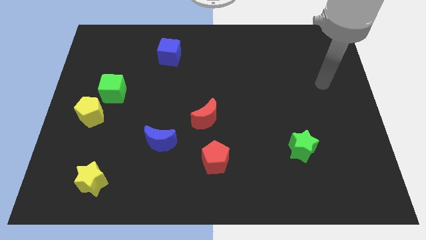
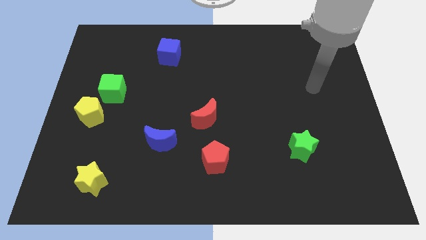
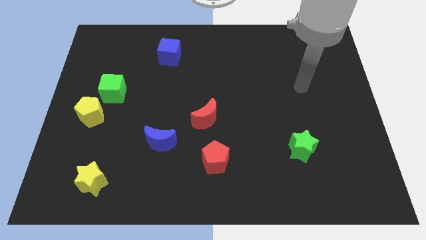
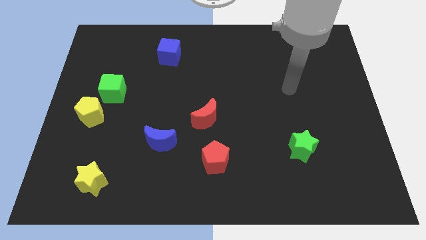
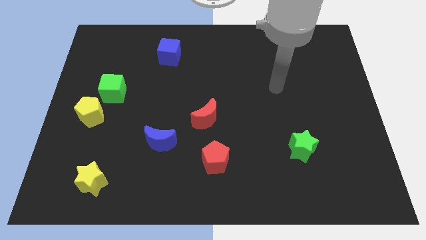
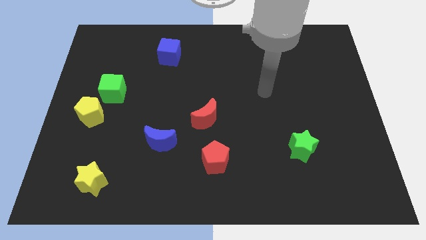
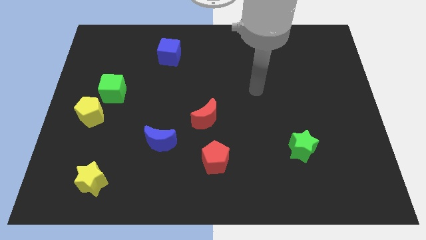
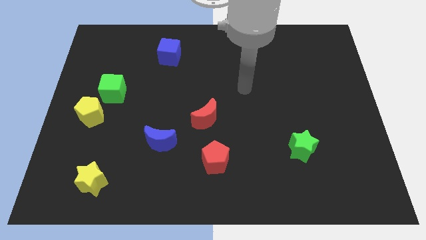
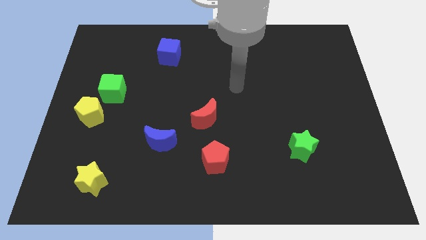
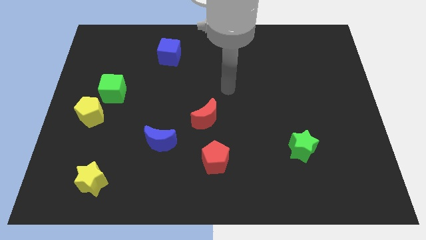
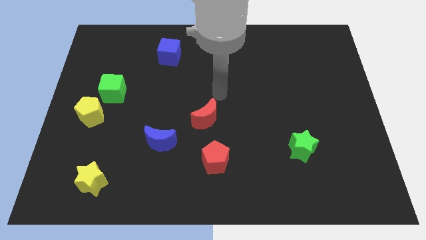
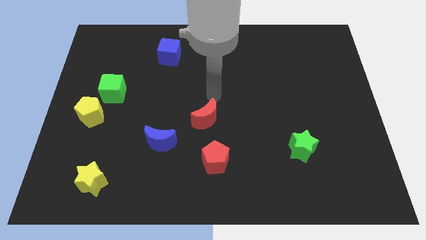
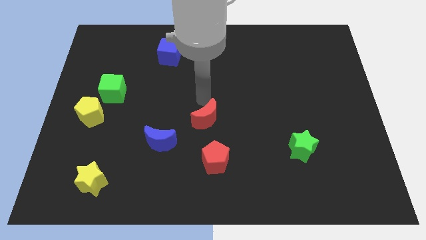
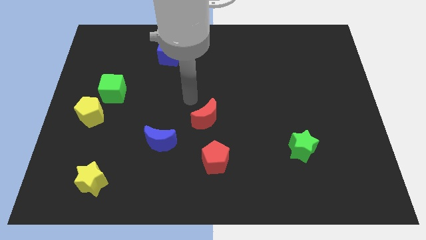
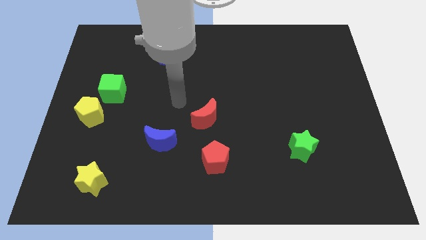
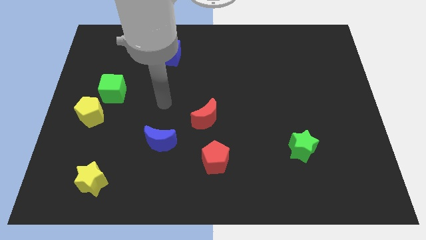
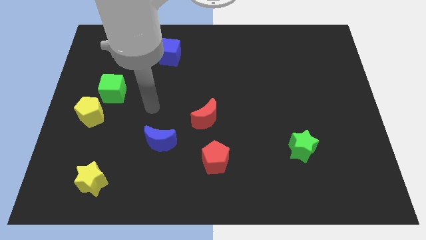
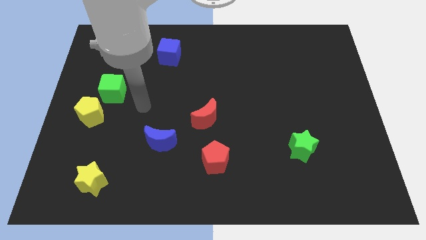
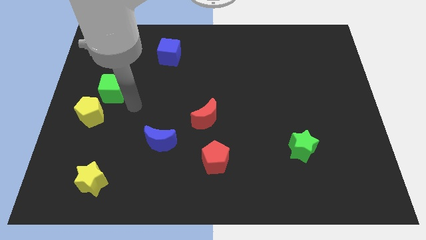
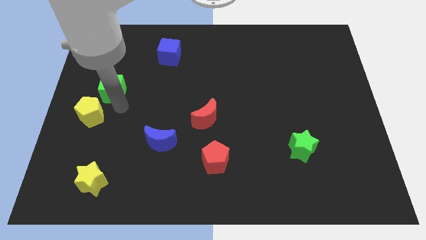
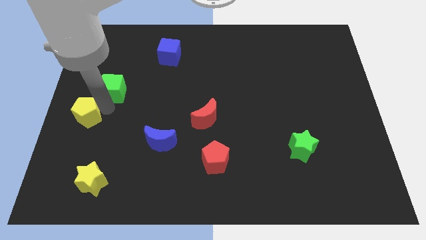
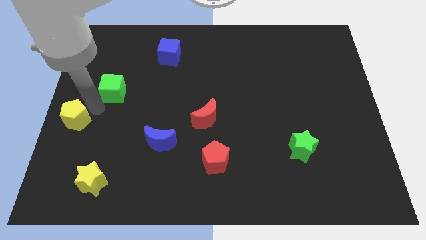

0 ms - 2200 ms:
move the green cube away from the yellow pentagon

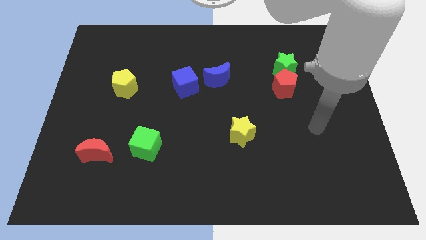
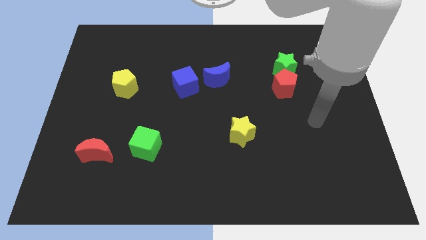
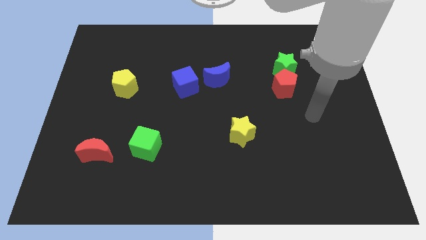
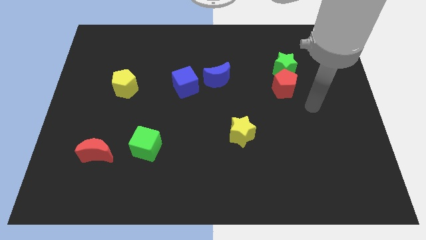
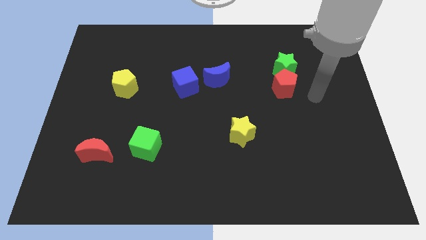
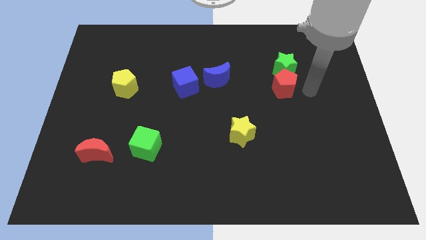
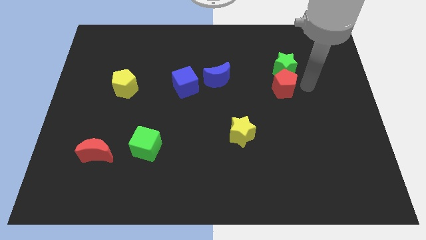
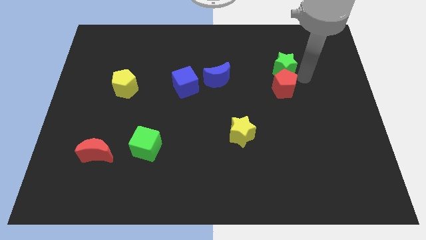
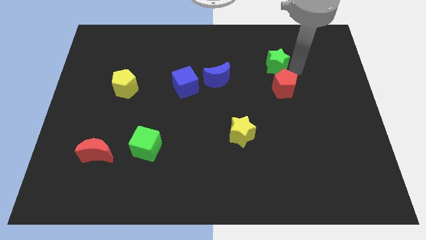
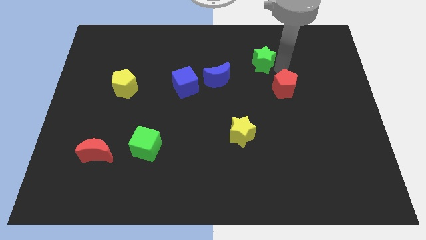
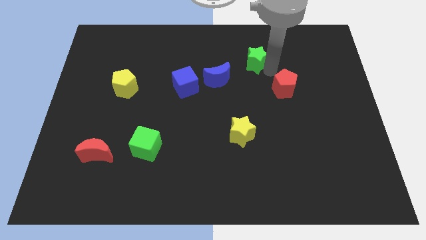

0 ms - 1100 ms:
separate the red pentagon from the green star

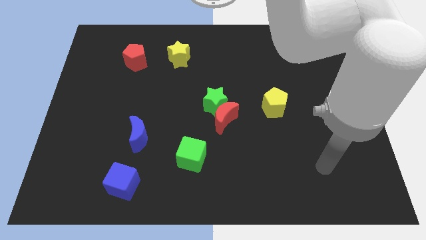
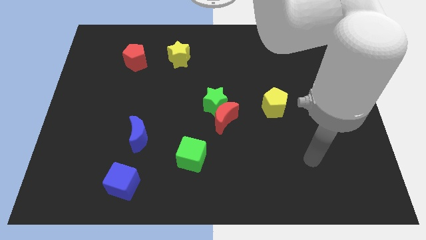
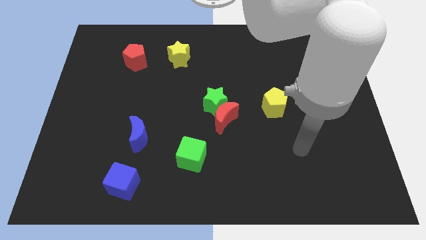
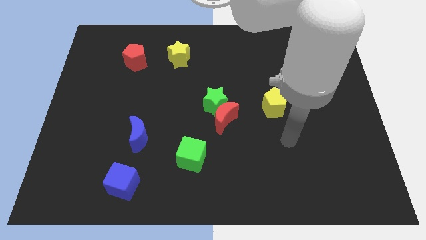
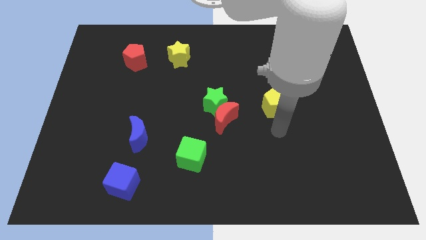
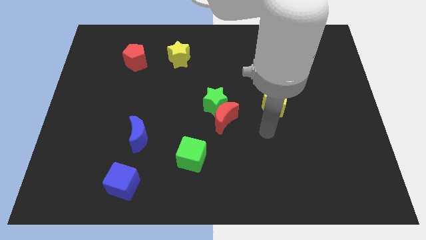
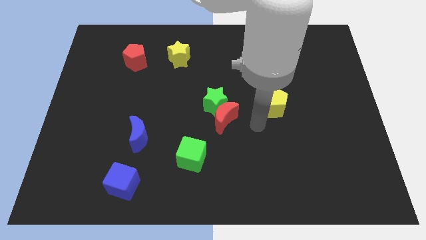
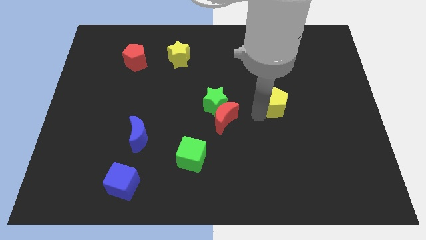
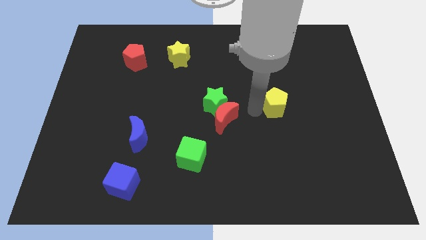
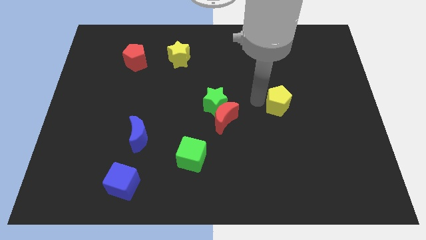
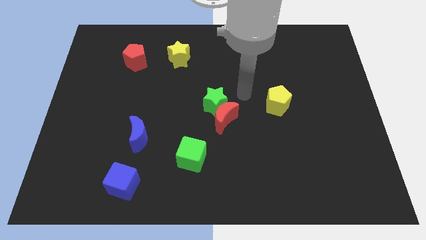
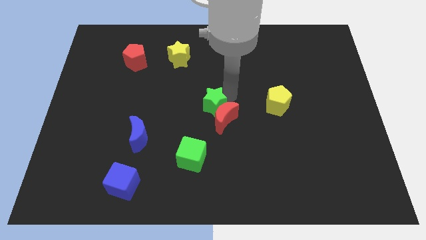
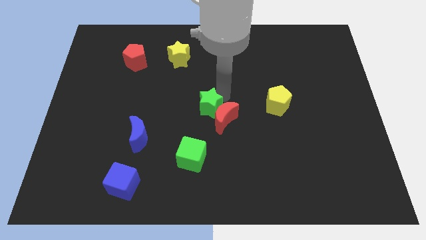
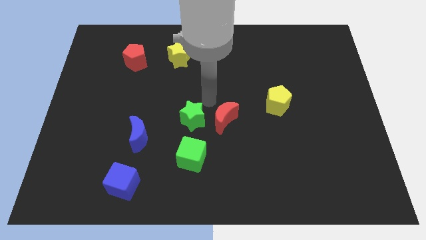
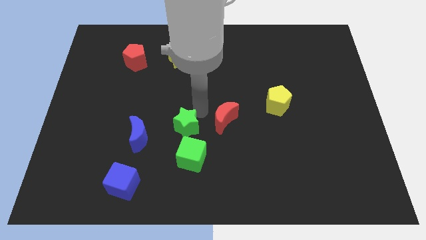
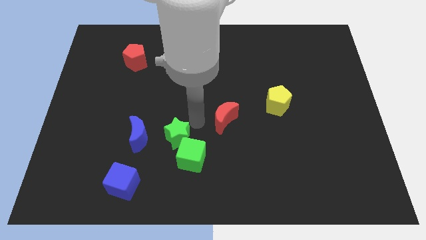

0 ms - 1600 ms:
move the red moon away from the green star

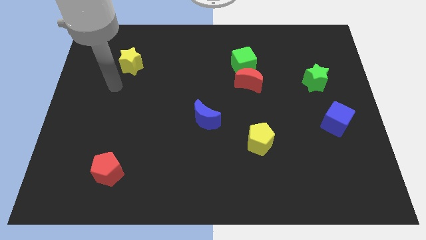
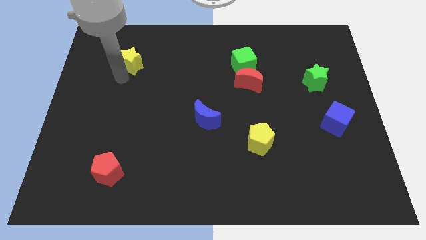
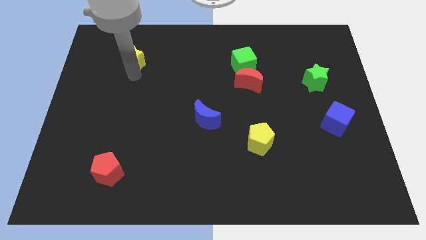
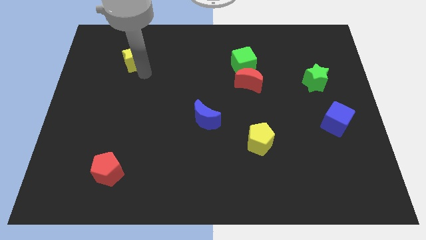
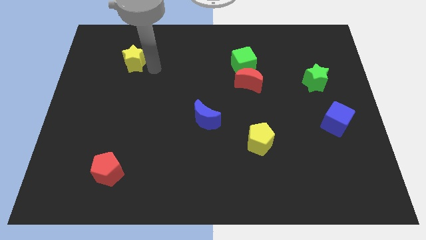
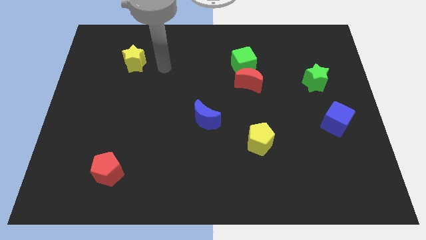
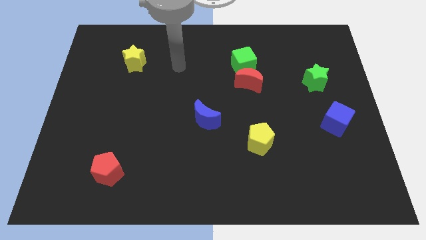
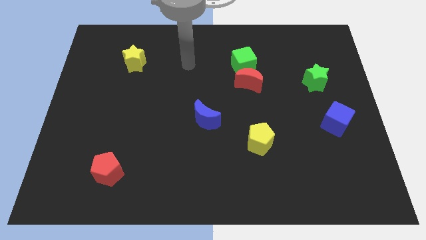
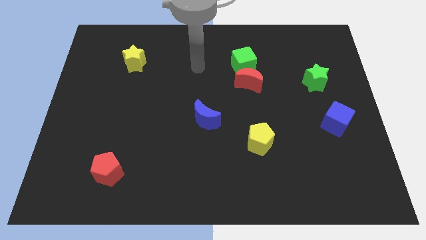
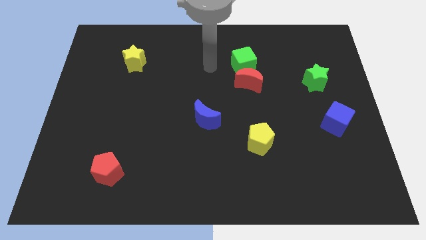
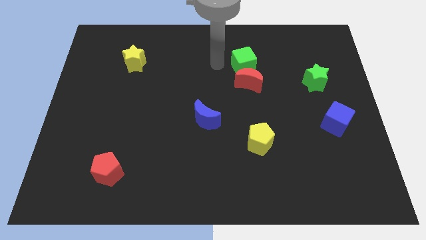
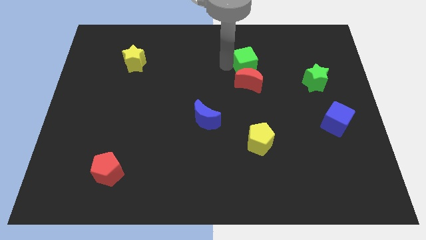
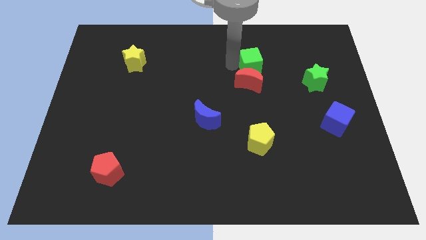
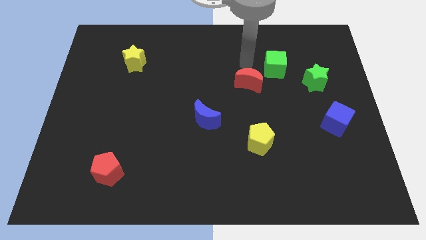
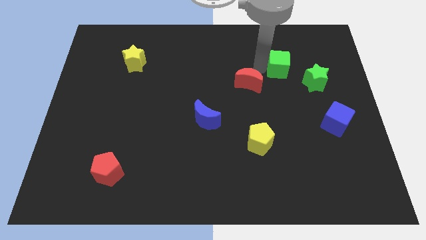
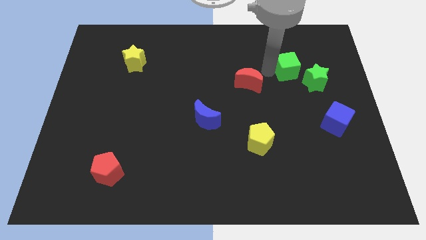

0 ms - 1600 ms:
separate the red moon from the green cube

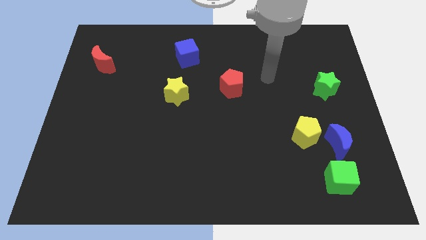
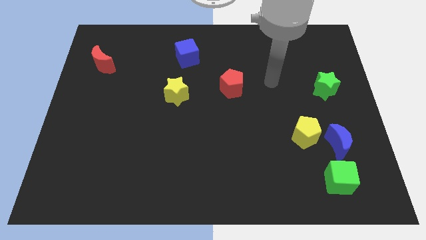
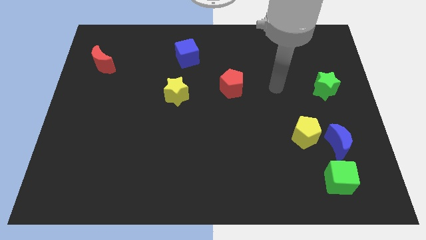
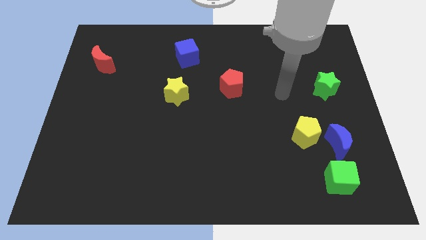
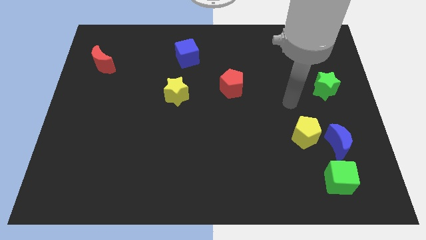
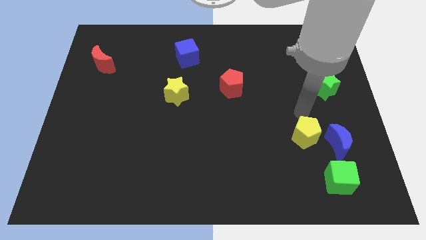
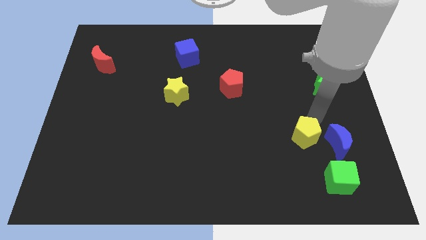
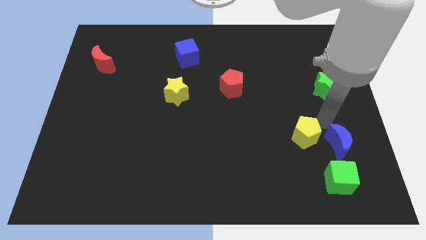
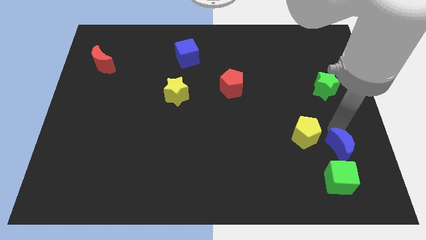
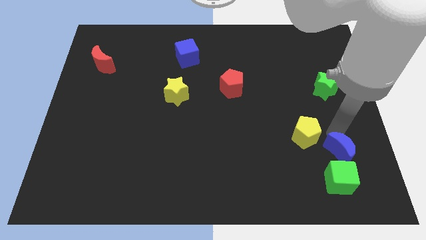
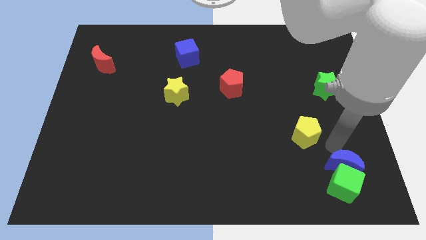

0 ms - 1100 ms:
separate the yellow pentagon from the blue moon

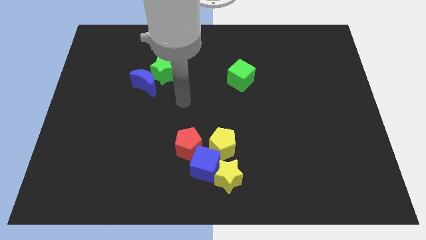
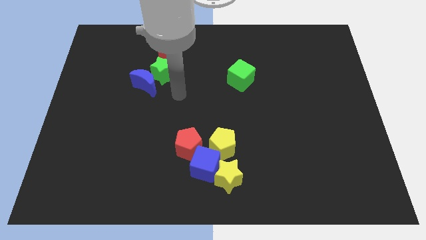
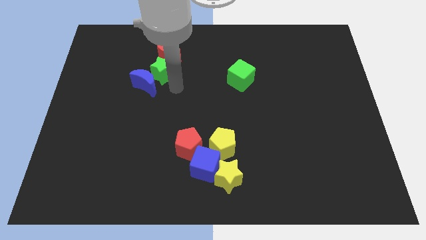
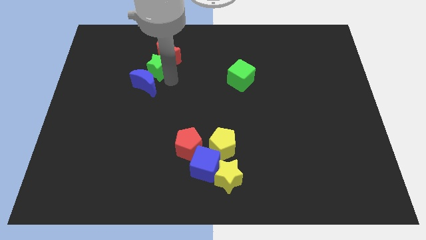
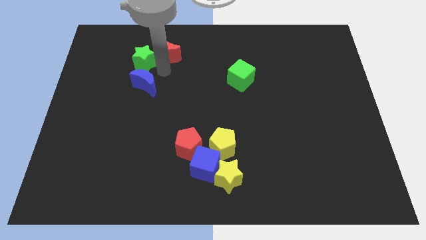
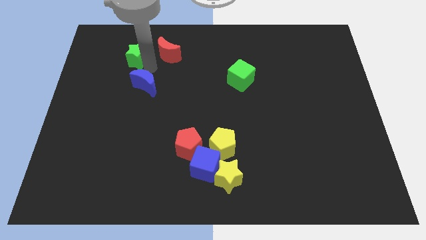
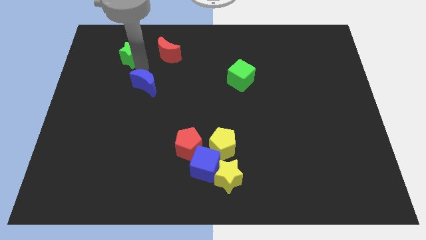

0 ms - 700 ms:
pull the blue moon apart from the green star

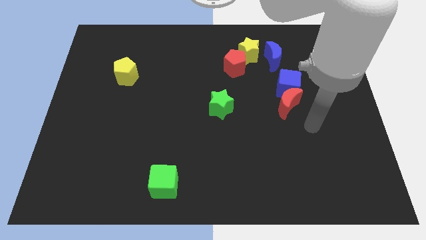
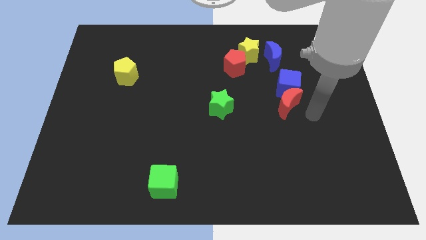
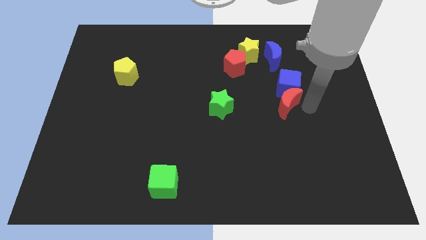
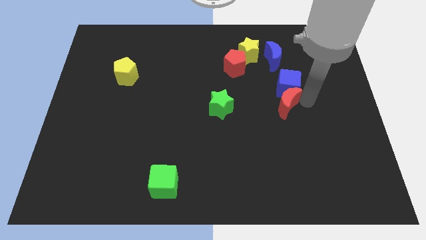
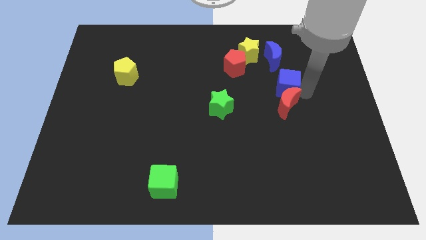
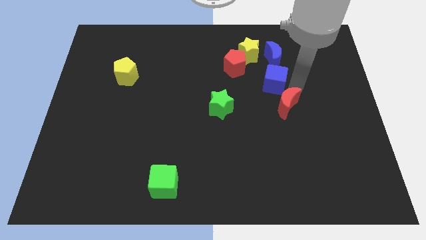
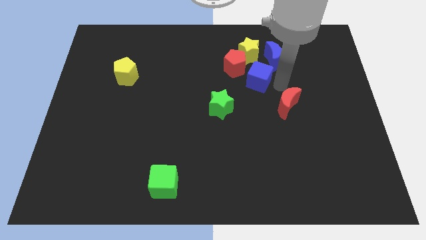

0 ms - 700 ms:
move the red moon away from the blue cube

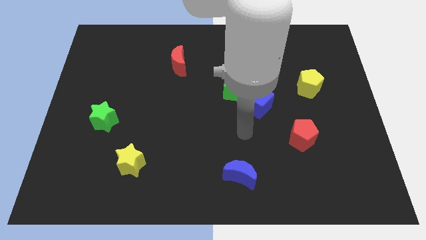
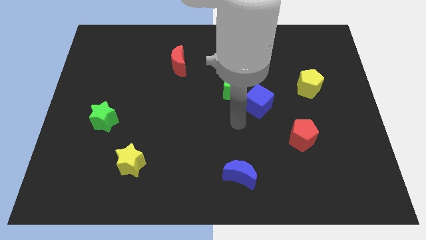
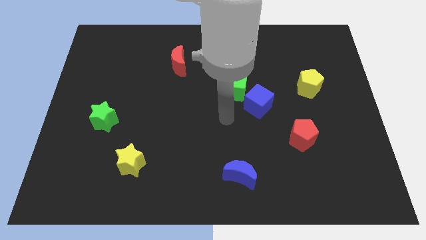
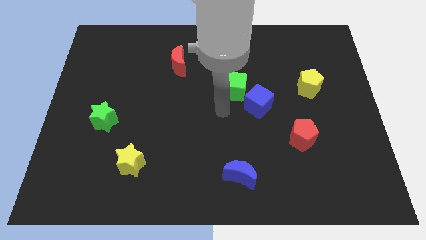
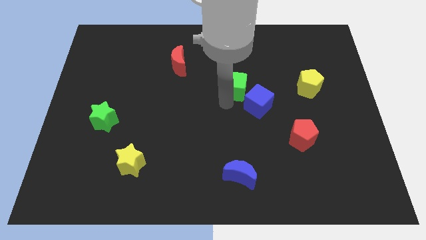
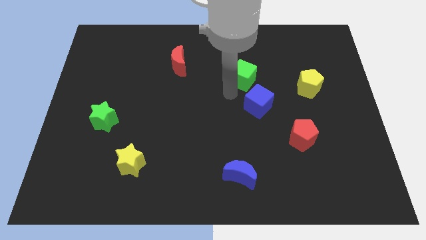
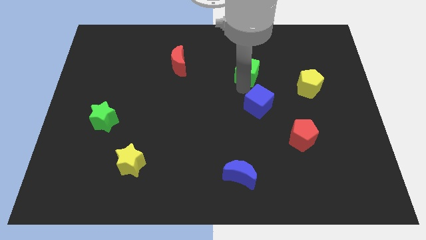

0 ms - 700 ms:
move the blue cube away from the green cube
